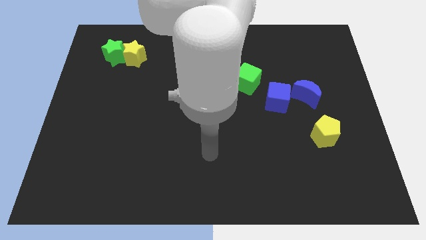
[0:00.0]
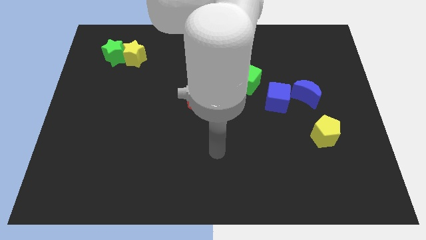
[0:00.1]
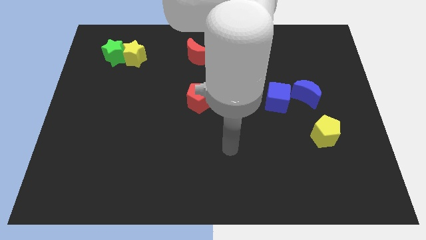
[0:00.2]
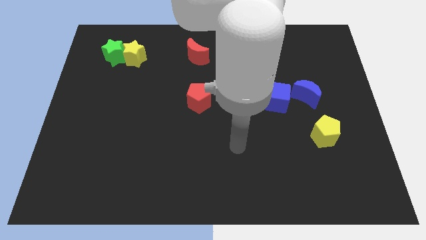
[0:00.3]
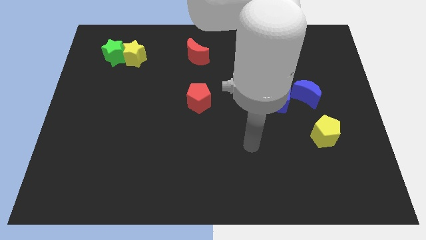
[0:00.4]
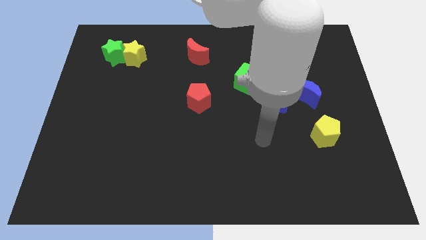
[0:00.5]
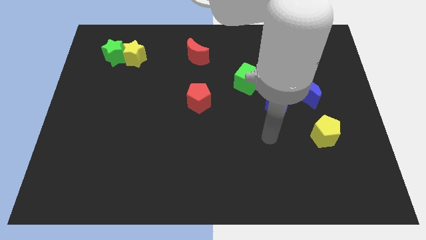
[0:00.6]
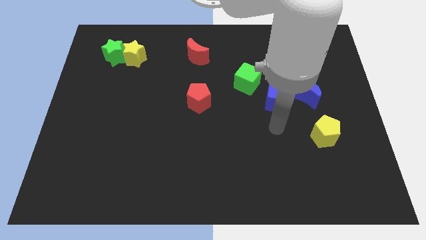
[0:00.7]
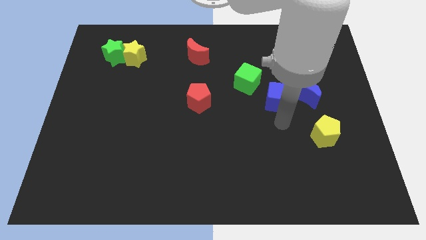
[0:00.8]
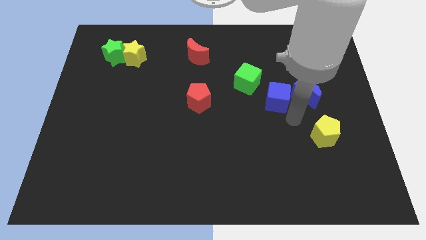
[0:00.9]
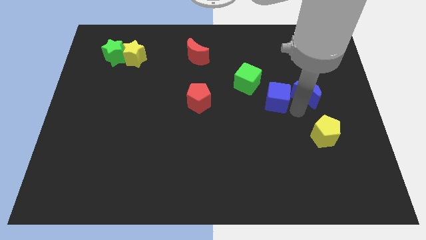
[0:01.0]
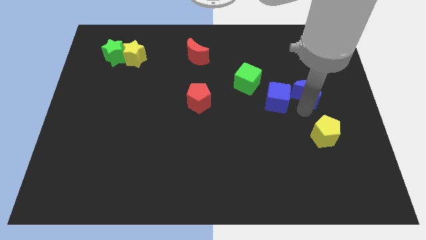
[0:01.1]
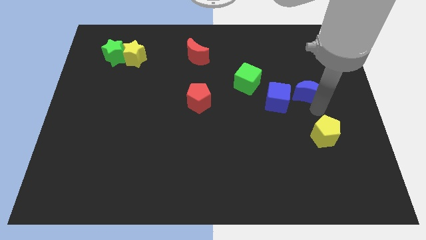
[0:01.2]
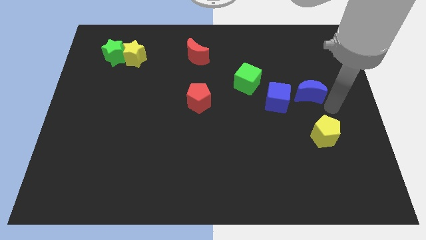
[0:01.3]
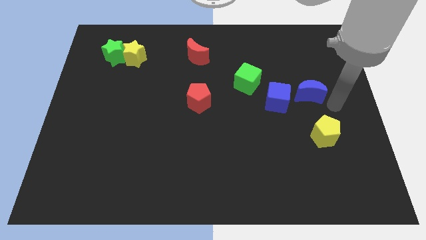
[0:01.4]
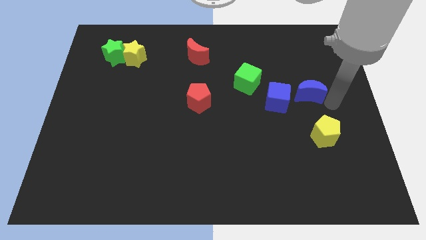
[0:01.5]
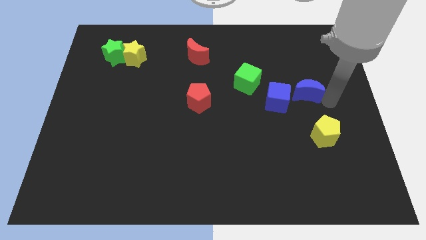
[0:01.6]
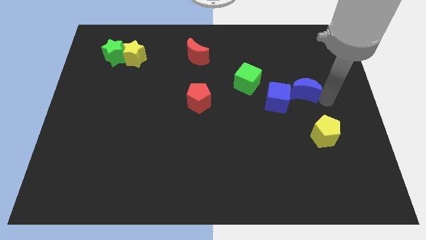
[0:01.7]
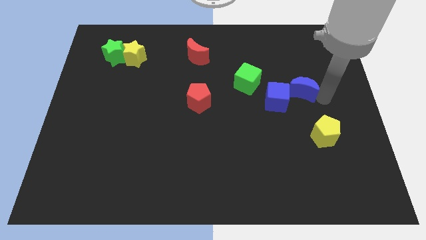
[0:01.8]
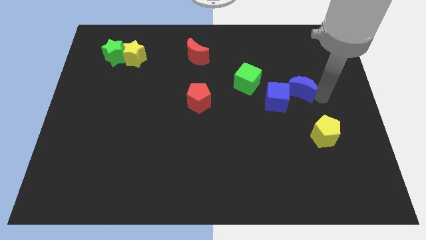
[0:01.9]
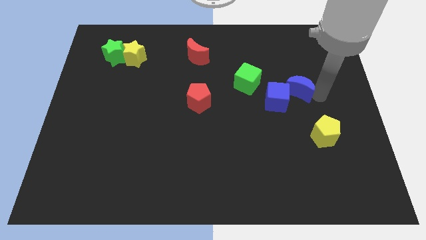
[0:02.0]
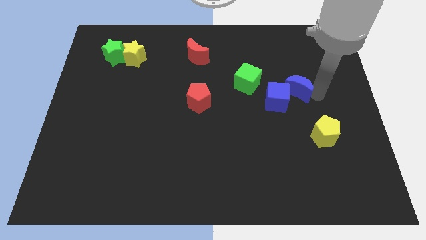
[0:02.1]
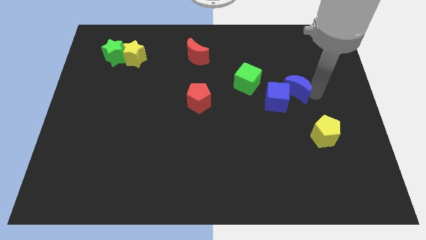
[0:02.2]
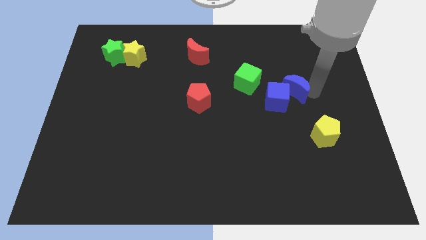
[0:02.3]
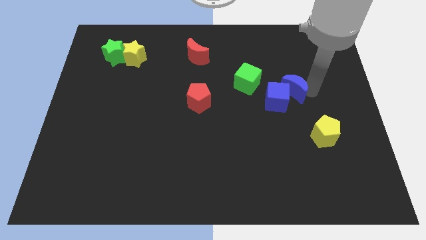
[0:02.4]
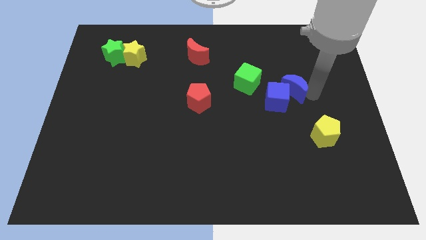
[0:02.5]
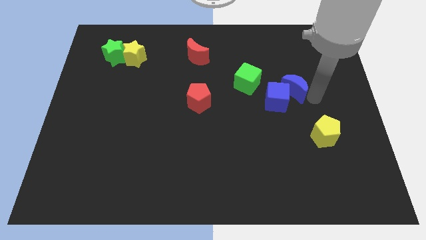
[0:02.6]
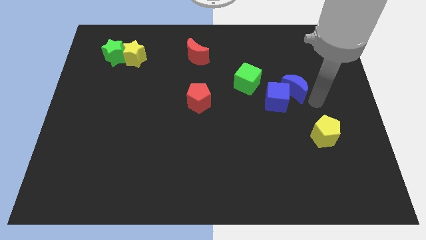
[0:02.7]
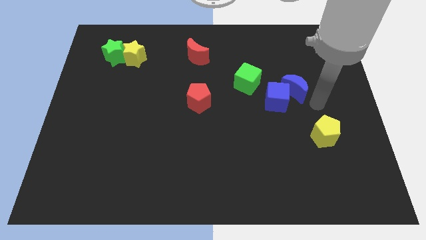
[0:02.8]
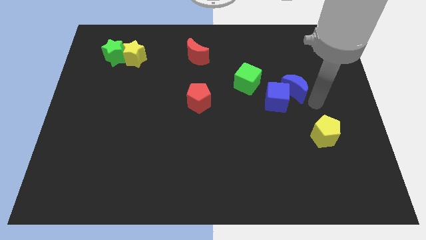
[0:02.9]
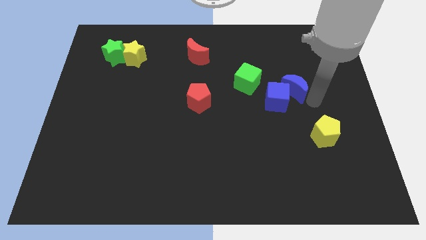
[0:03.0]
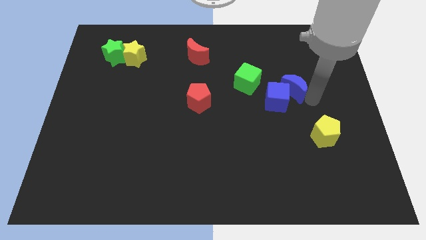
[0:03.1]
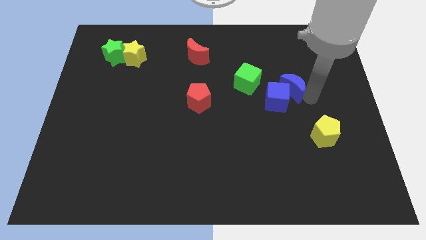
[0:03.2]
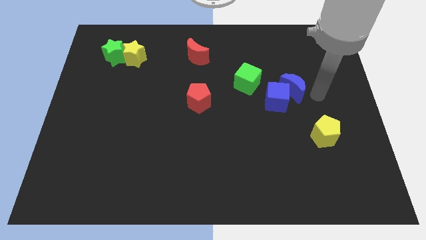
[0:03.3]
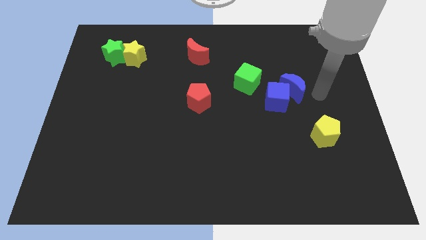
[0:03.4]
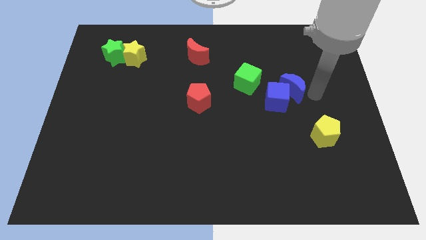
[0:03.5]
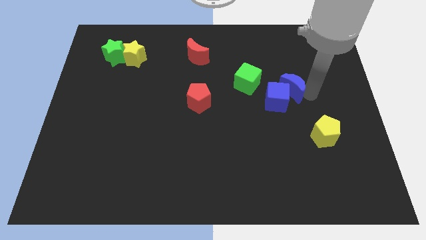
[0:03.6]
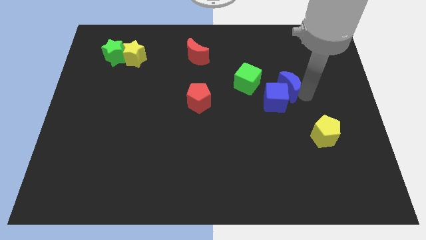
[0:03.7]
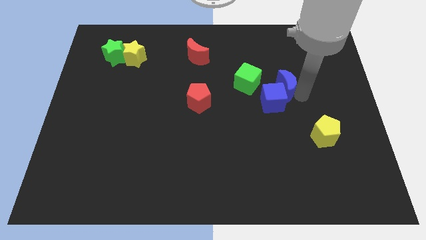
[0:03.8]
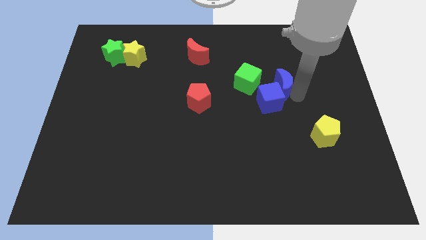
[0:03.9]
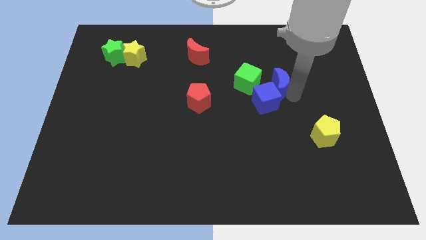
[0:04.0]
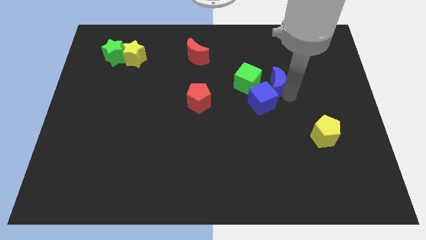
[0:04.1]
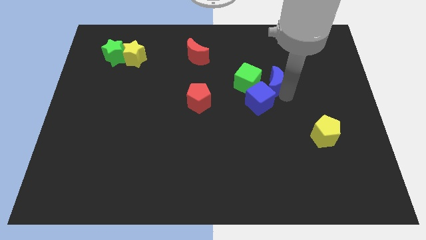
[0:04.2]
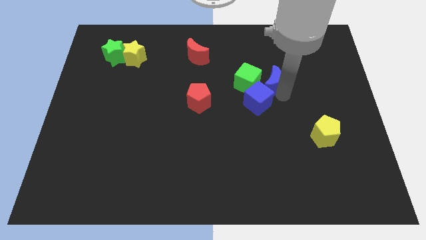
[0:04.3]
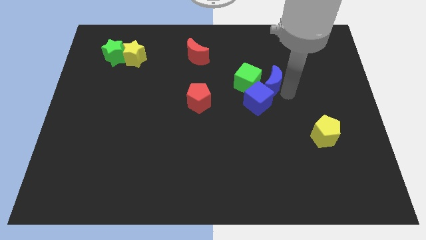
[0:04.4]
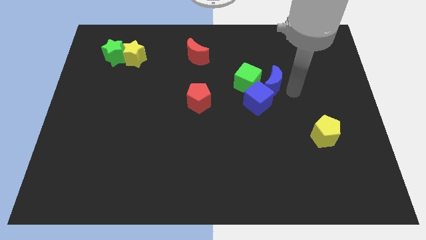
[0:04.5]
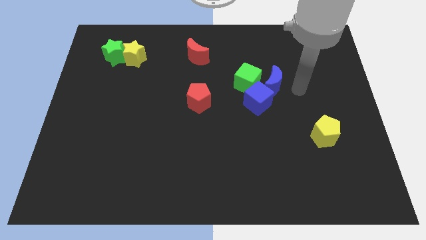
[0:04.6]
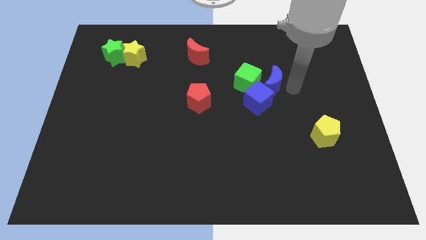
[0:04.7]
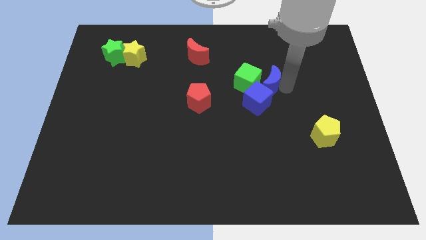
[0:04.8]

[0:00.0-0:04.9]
slide the blue moon to the green cube

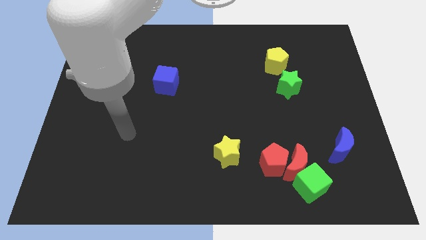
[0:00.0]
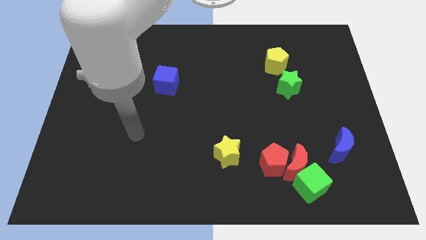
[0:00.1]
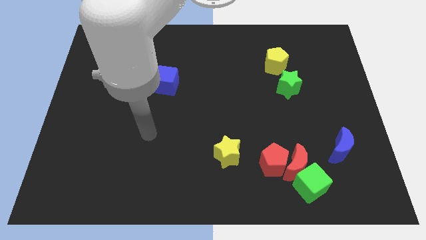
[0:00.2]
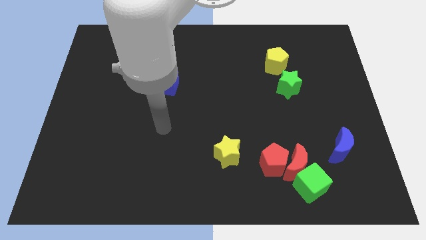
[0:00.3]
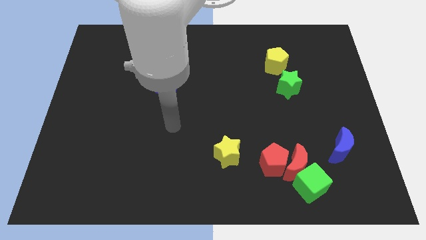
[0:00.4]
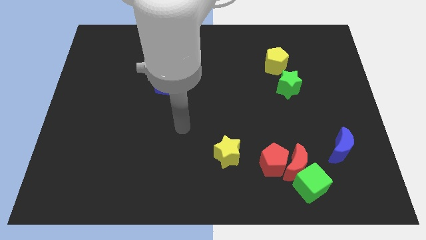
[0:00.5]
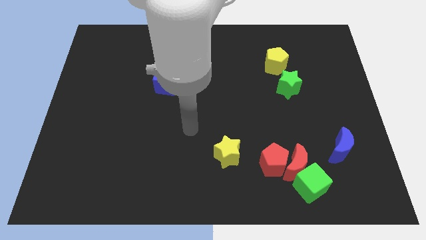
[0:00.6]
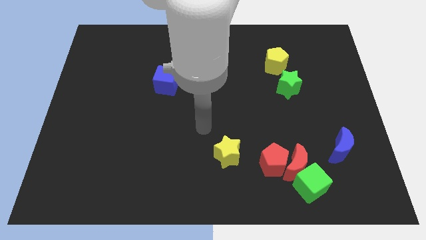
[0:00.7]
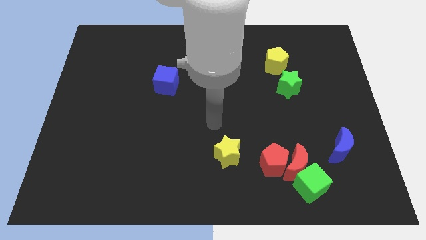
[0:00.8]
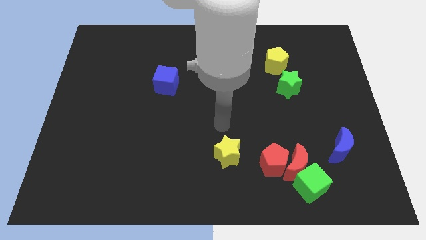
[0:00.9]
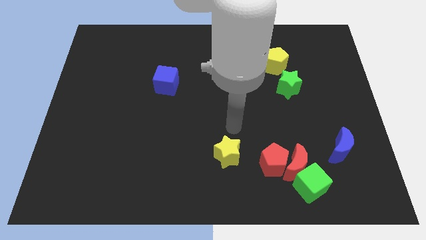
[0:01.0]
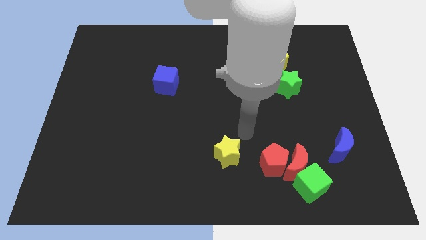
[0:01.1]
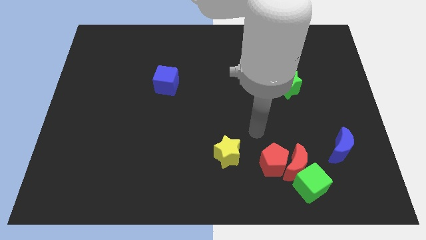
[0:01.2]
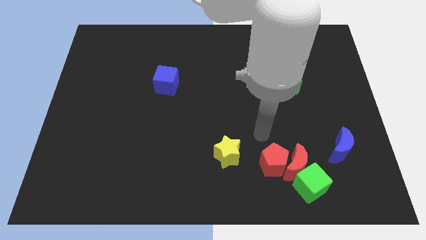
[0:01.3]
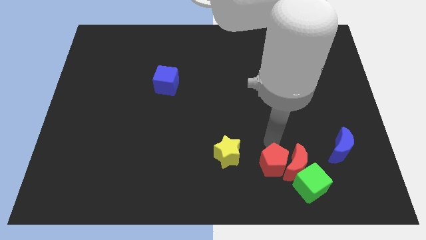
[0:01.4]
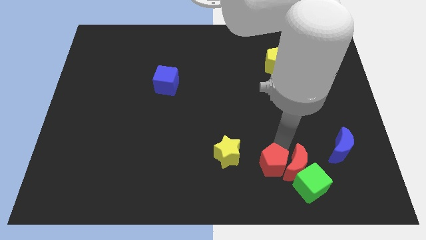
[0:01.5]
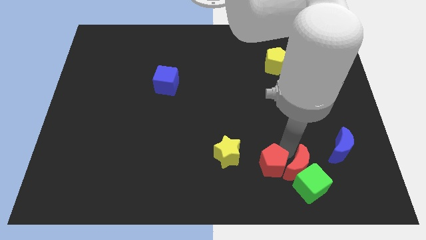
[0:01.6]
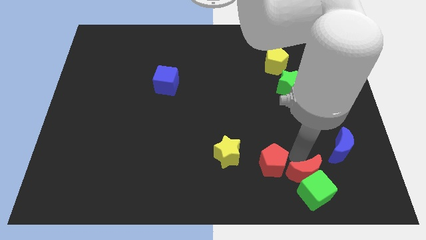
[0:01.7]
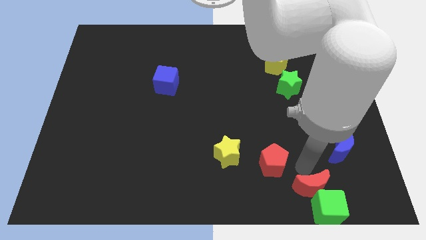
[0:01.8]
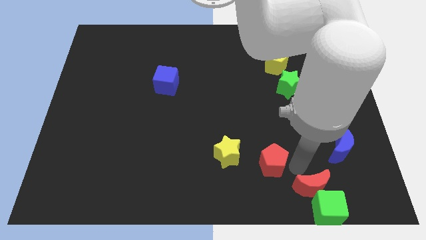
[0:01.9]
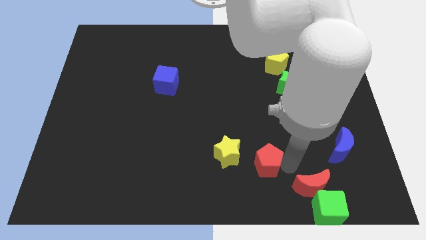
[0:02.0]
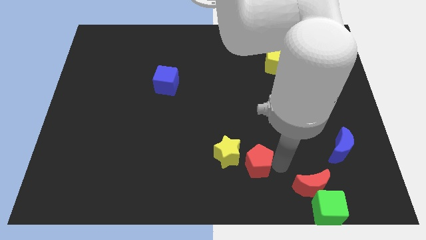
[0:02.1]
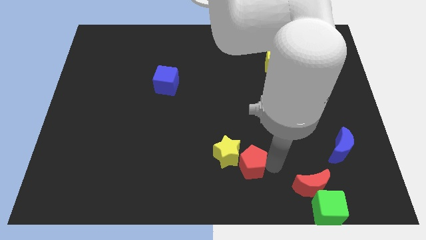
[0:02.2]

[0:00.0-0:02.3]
put the red pentagon close to the yellow star
